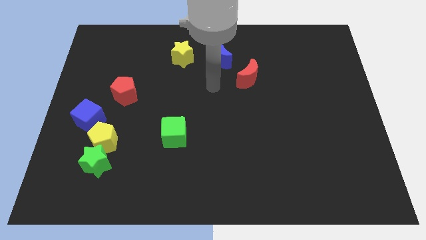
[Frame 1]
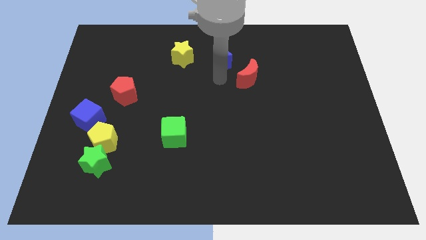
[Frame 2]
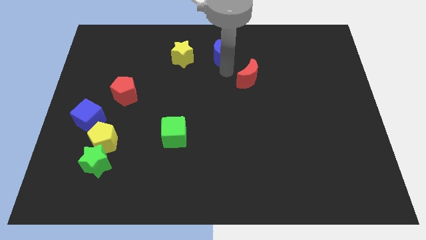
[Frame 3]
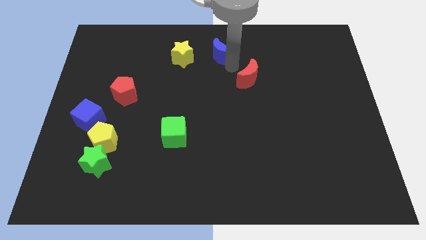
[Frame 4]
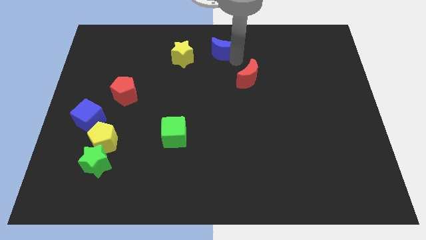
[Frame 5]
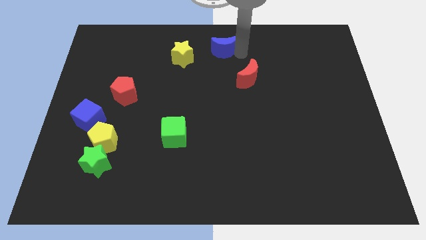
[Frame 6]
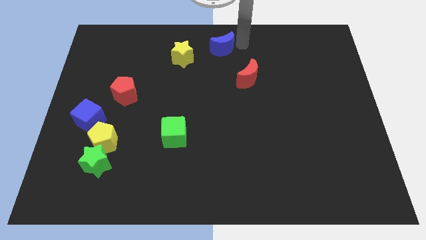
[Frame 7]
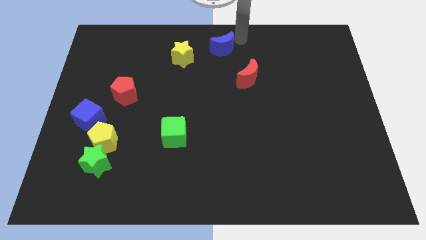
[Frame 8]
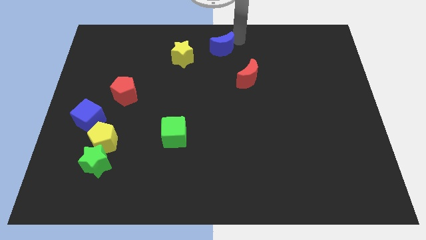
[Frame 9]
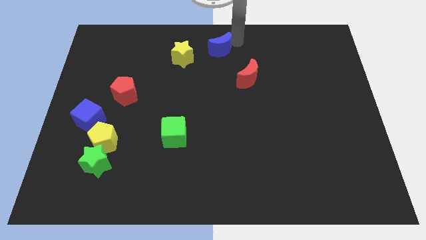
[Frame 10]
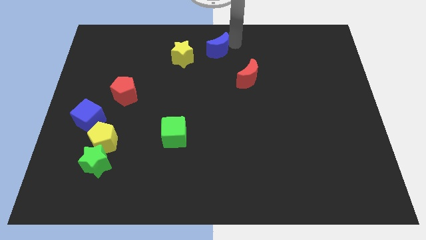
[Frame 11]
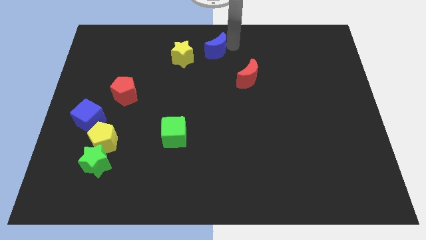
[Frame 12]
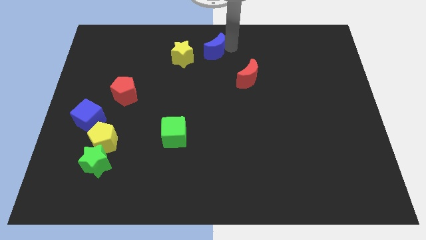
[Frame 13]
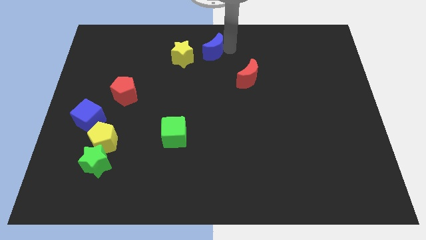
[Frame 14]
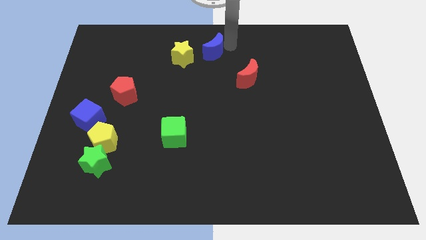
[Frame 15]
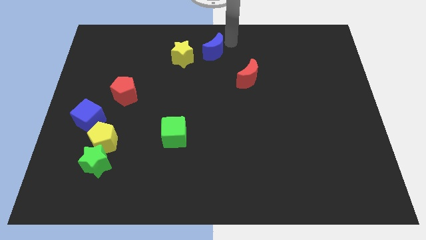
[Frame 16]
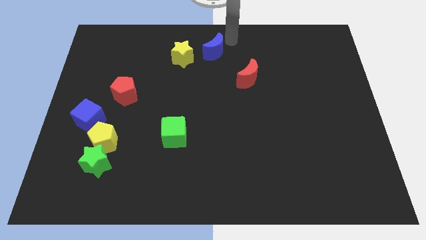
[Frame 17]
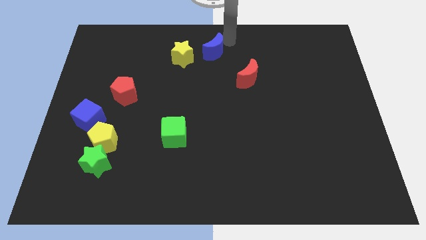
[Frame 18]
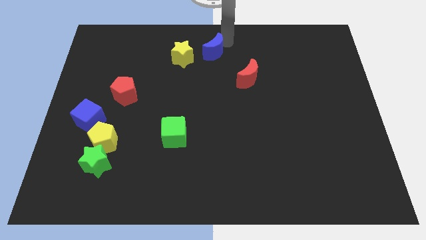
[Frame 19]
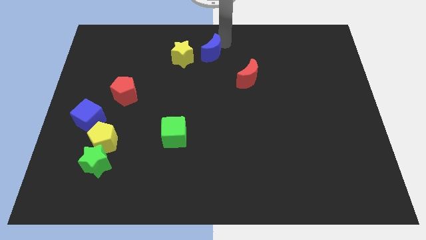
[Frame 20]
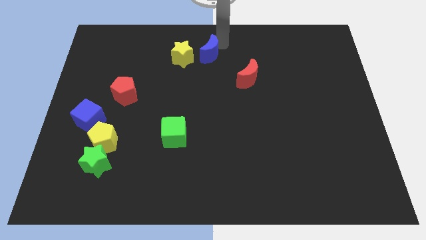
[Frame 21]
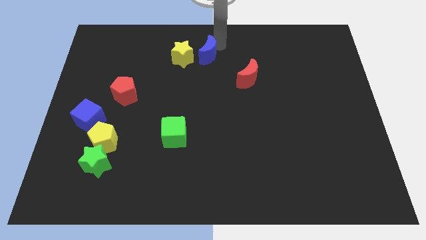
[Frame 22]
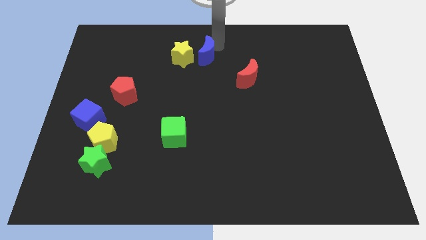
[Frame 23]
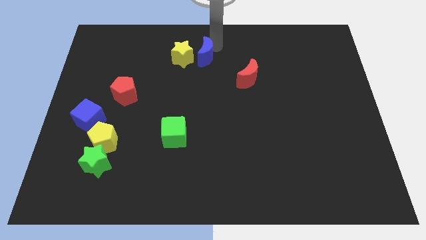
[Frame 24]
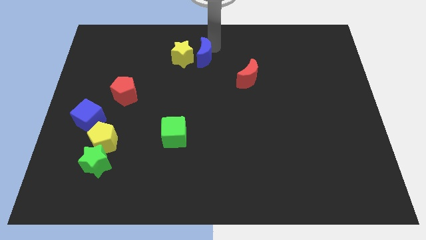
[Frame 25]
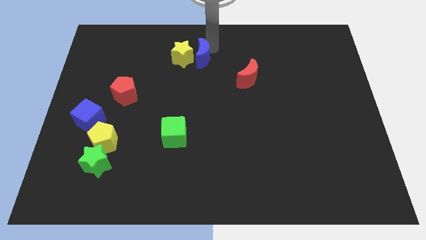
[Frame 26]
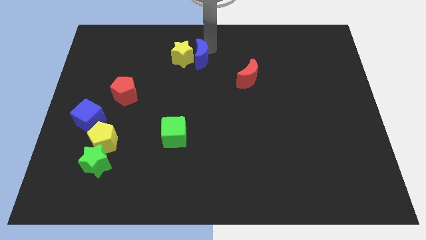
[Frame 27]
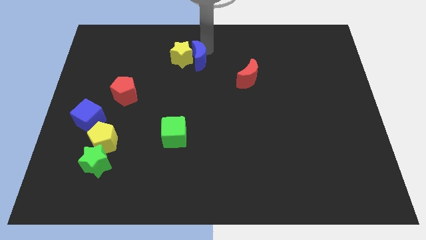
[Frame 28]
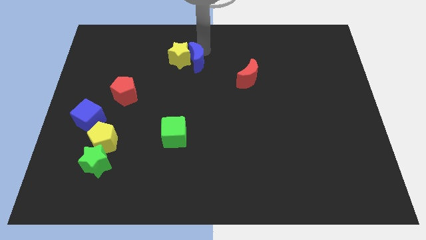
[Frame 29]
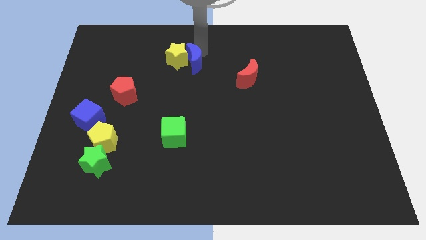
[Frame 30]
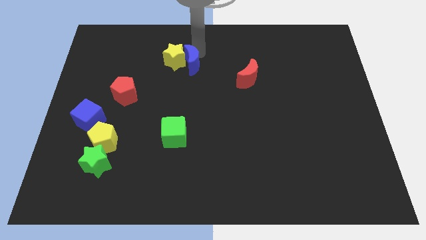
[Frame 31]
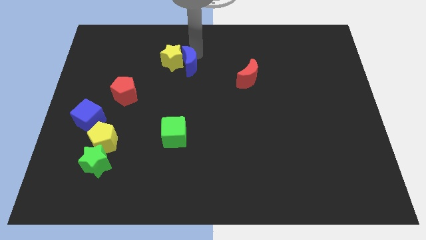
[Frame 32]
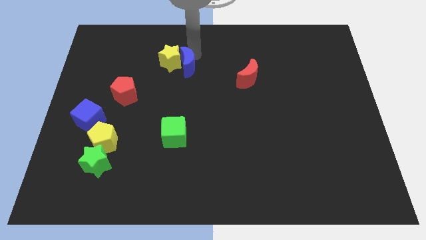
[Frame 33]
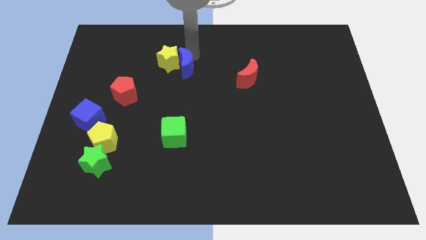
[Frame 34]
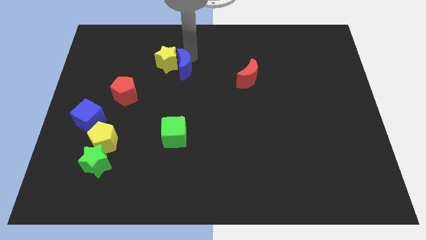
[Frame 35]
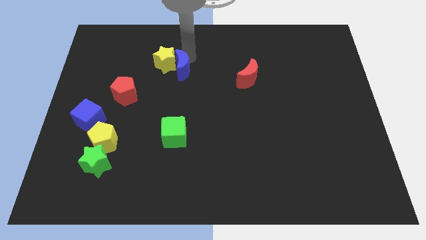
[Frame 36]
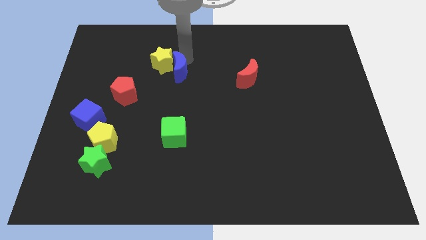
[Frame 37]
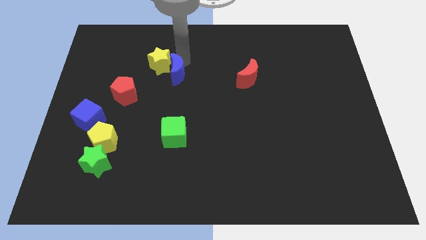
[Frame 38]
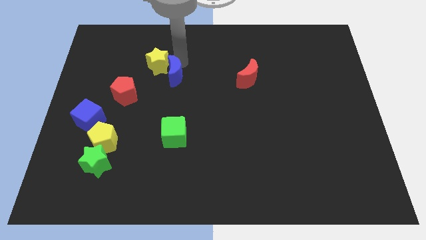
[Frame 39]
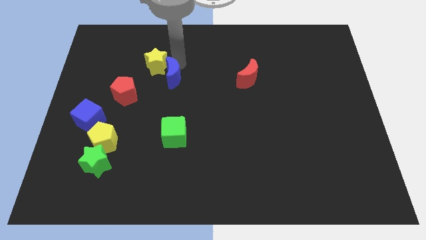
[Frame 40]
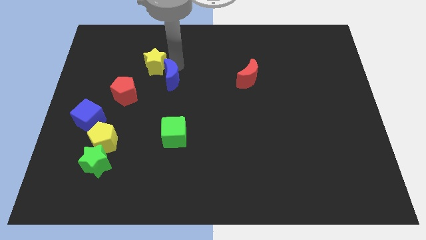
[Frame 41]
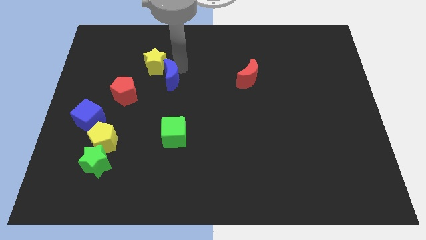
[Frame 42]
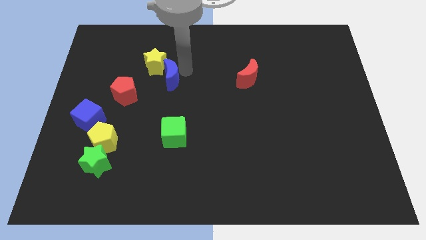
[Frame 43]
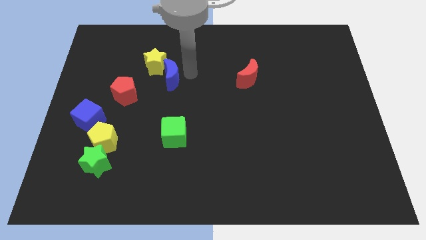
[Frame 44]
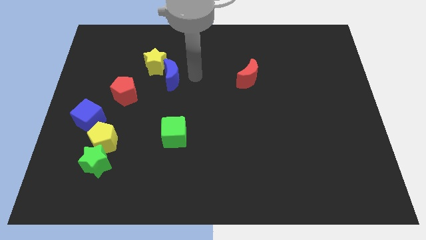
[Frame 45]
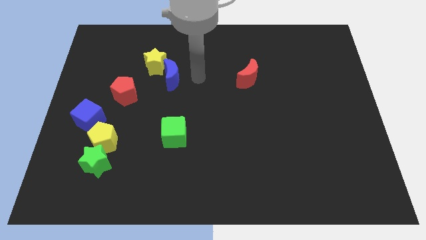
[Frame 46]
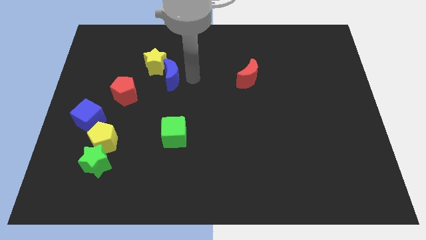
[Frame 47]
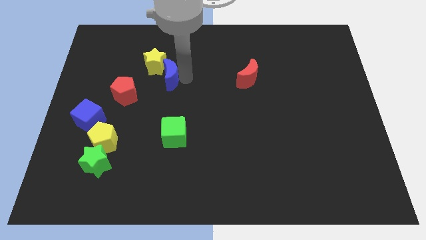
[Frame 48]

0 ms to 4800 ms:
slide the blue moon diagonally up and to the right of the red pentagon

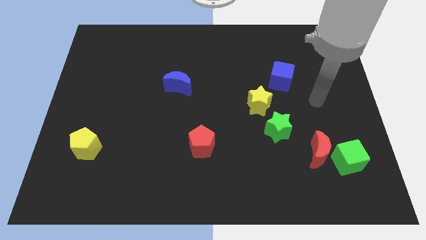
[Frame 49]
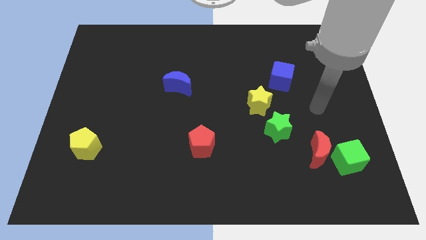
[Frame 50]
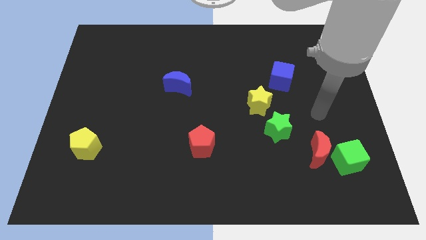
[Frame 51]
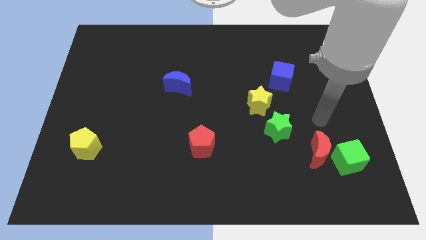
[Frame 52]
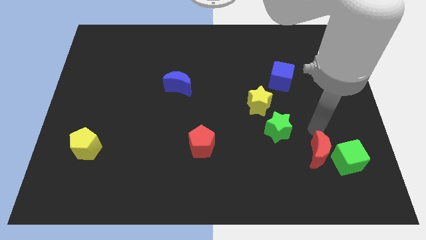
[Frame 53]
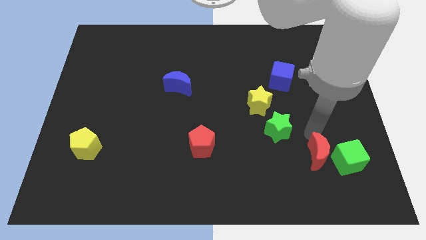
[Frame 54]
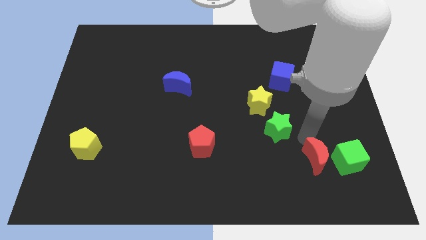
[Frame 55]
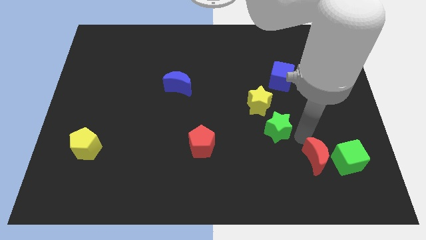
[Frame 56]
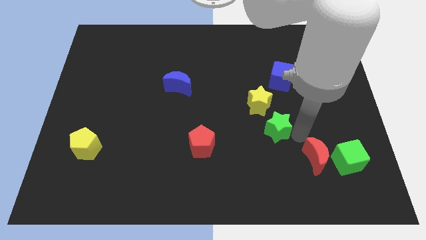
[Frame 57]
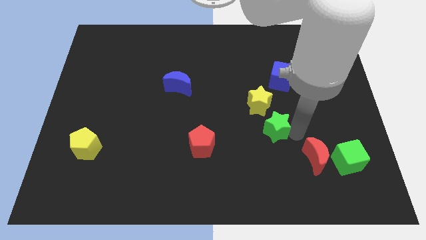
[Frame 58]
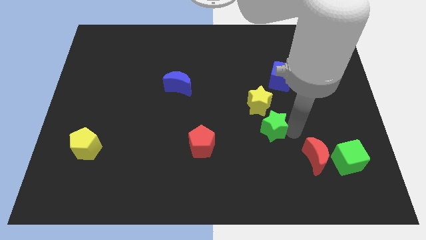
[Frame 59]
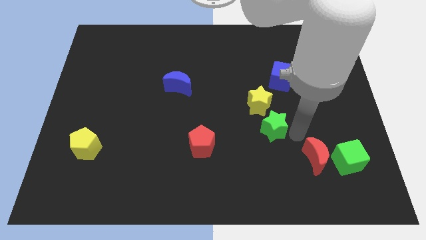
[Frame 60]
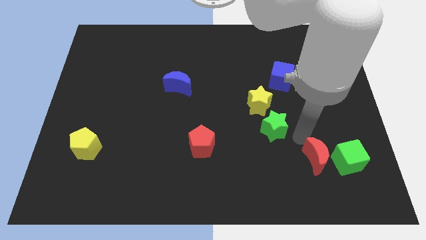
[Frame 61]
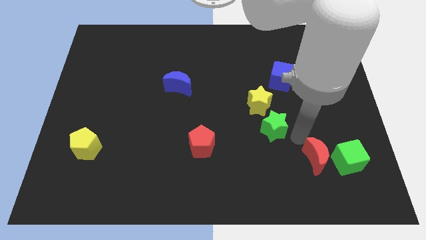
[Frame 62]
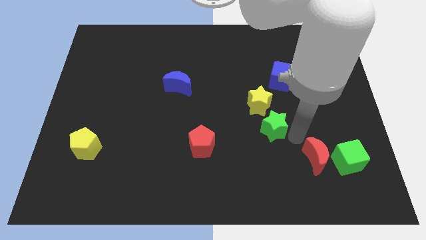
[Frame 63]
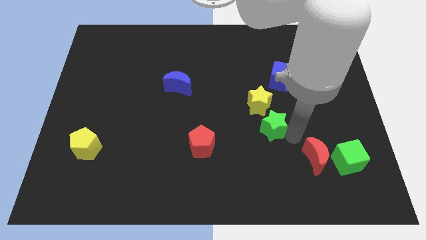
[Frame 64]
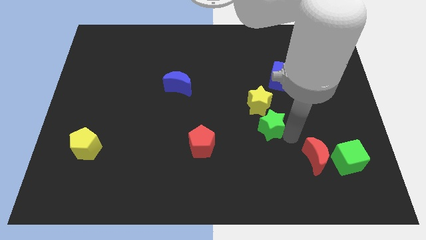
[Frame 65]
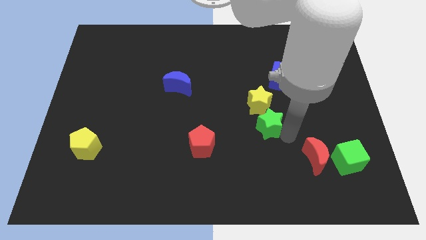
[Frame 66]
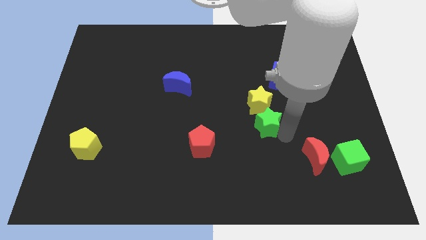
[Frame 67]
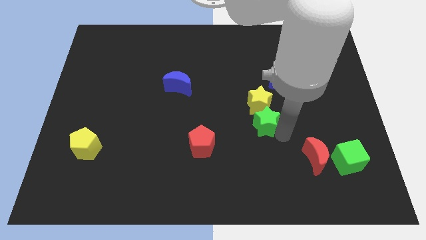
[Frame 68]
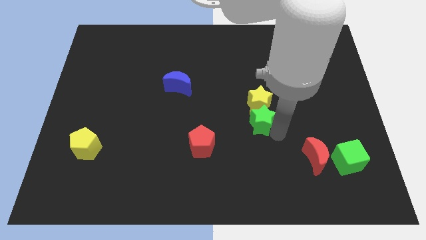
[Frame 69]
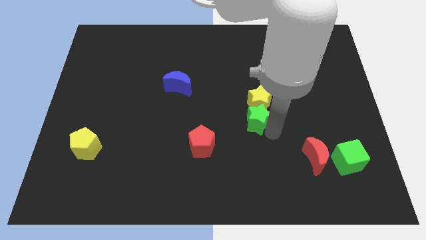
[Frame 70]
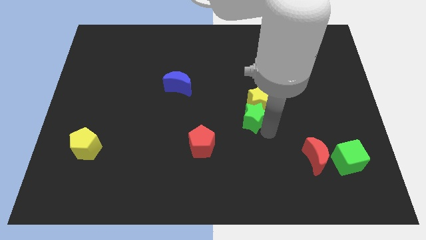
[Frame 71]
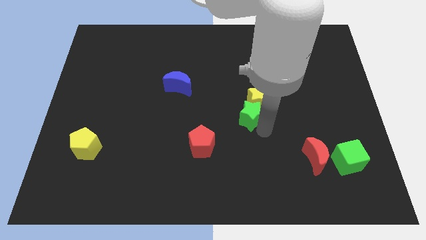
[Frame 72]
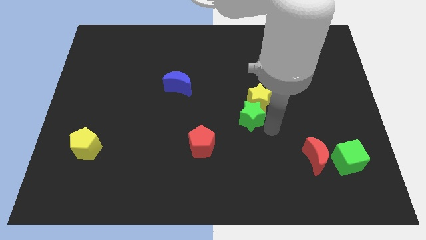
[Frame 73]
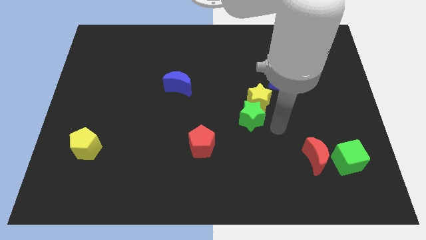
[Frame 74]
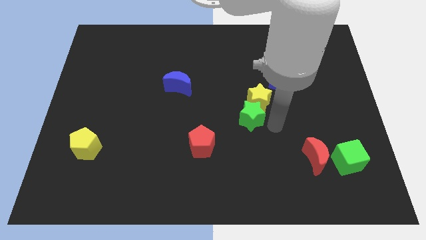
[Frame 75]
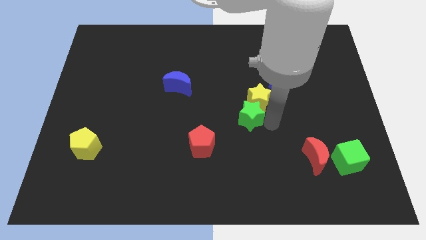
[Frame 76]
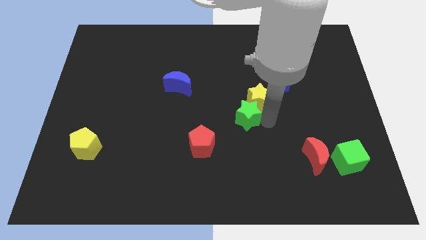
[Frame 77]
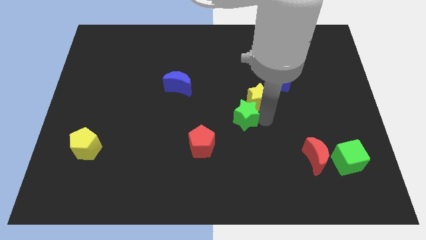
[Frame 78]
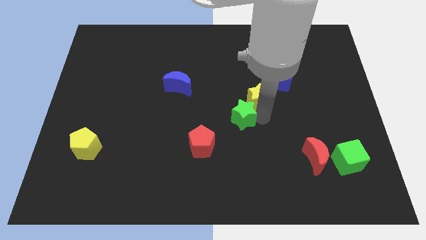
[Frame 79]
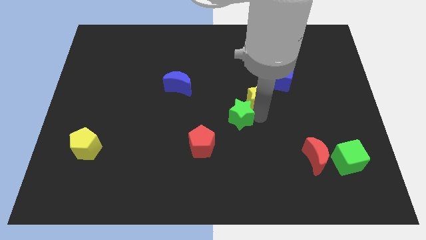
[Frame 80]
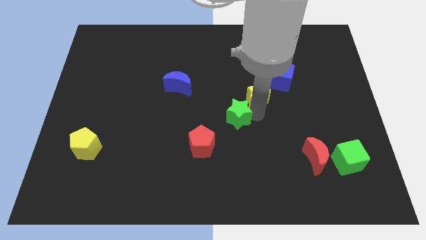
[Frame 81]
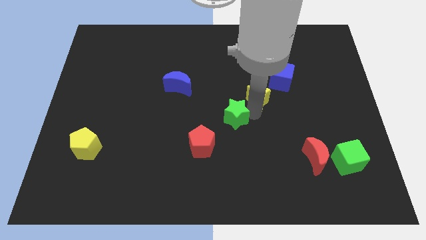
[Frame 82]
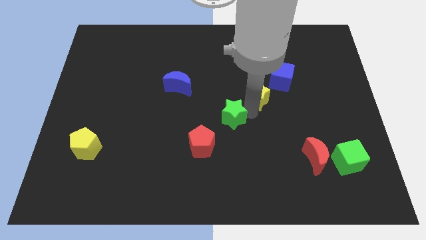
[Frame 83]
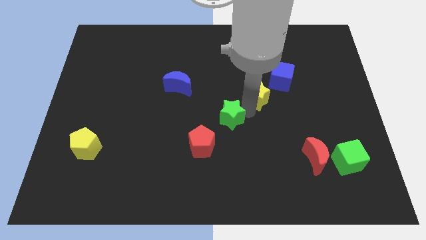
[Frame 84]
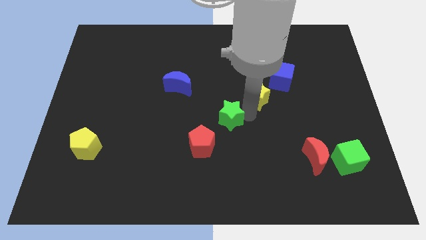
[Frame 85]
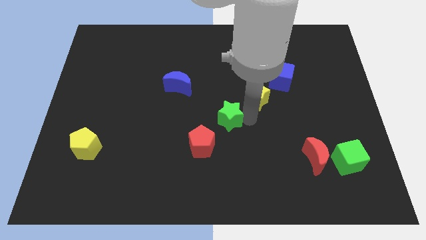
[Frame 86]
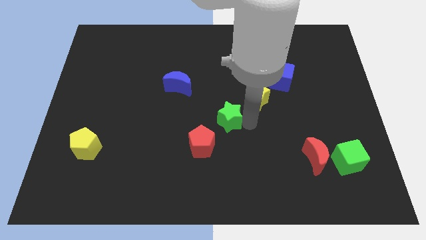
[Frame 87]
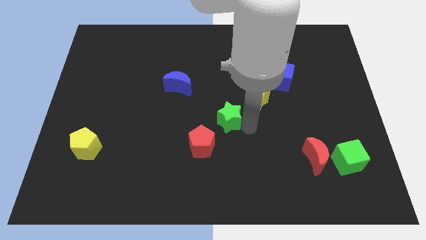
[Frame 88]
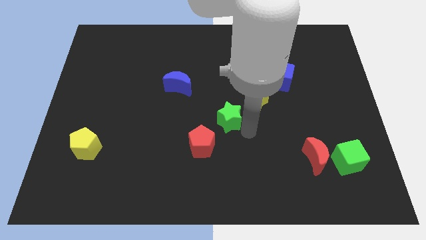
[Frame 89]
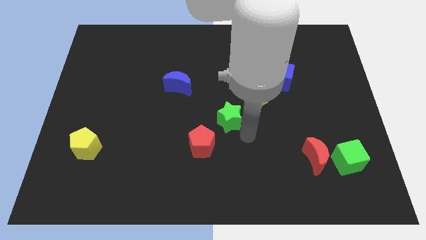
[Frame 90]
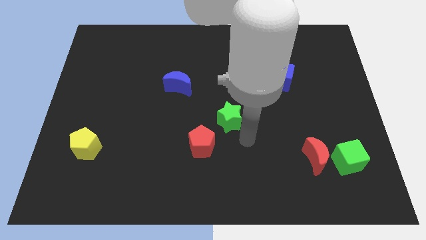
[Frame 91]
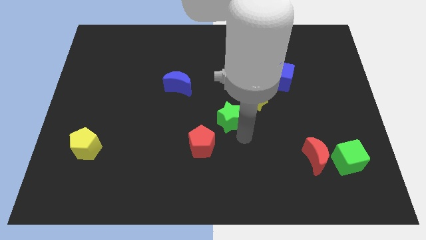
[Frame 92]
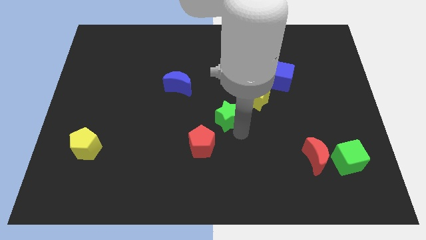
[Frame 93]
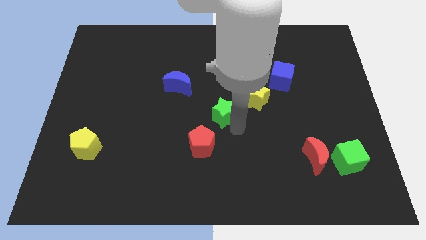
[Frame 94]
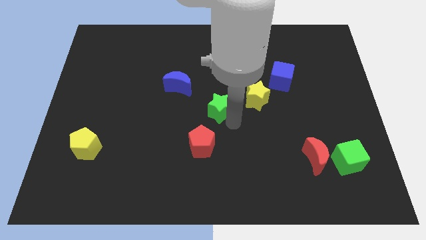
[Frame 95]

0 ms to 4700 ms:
put the green star to the bottom right side of the blue moon
